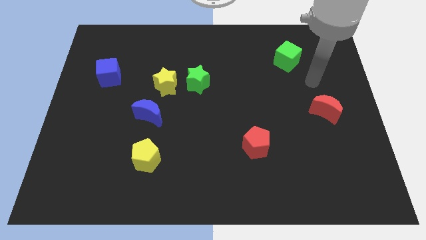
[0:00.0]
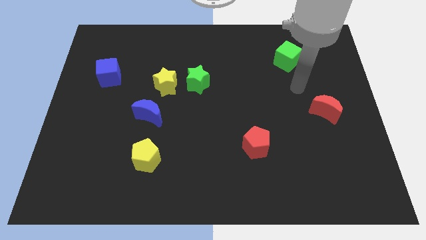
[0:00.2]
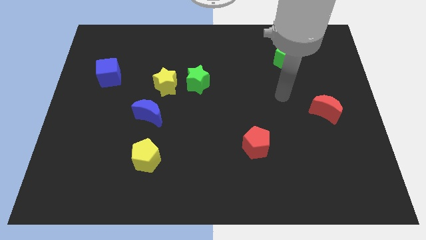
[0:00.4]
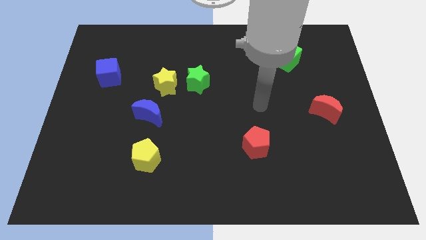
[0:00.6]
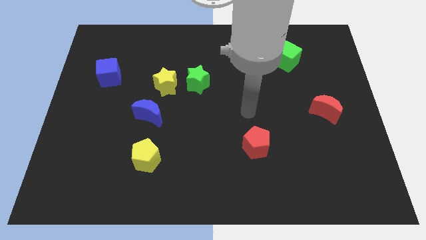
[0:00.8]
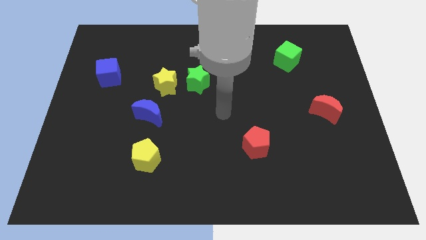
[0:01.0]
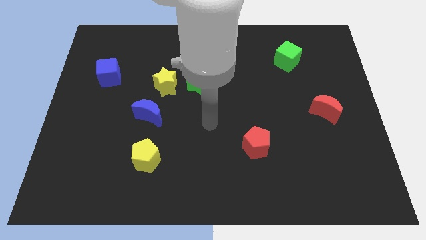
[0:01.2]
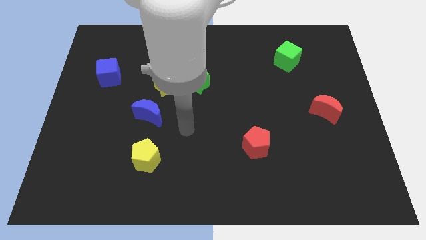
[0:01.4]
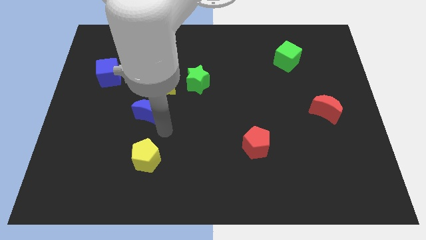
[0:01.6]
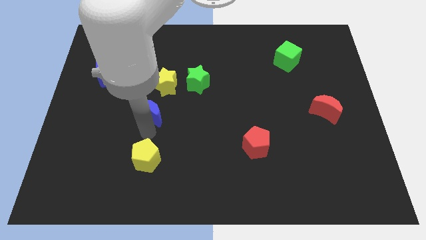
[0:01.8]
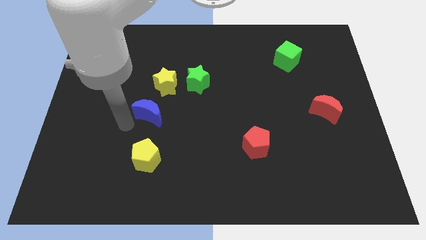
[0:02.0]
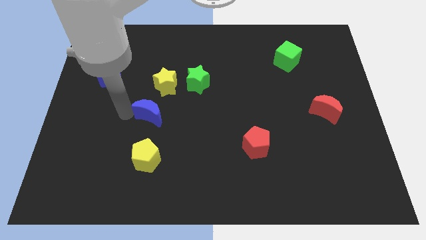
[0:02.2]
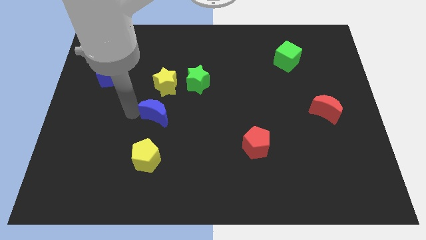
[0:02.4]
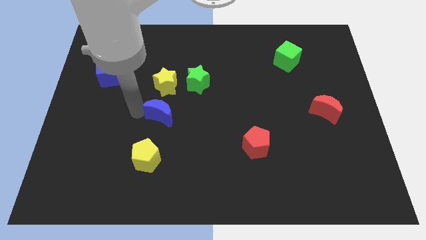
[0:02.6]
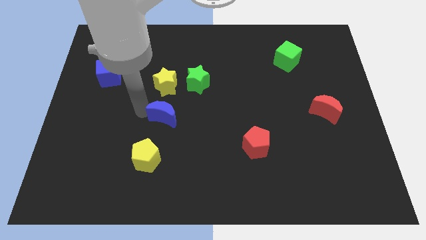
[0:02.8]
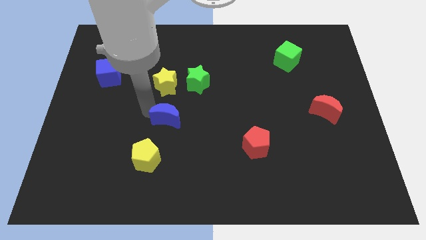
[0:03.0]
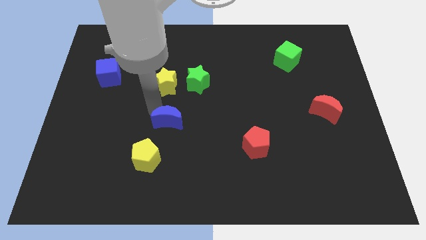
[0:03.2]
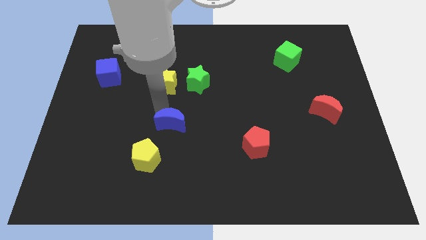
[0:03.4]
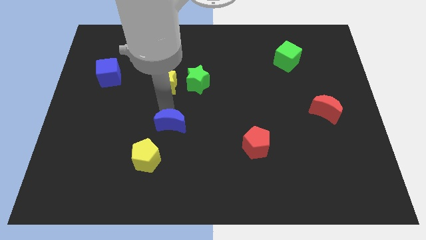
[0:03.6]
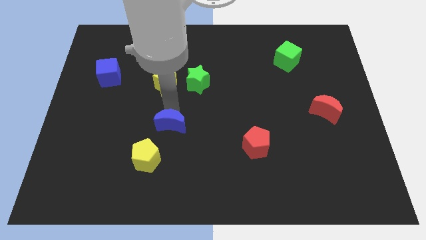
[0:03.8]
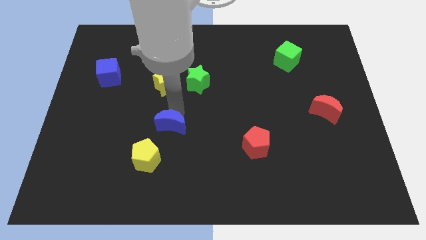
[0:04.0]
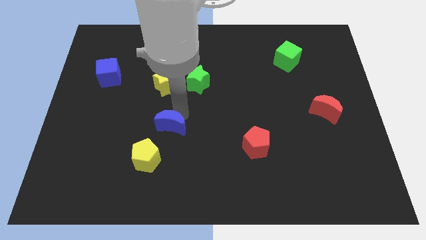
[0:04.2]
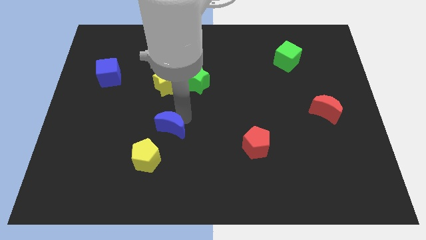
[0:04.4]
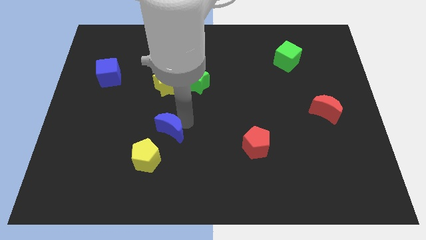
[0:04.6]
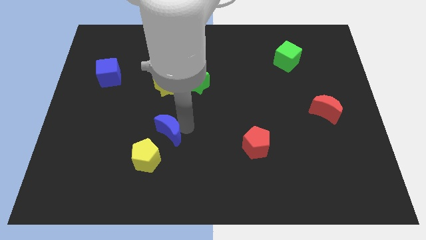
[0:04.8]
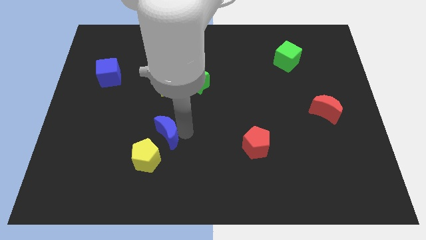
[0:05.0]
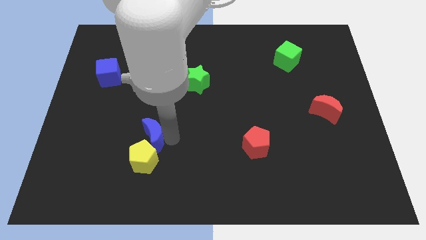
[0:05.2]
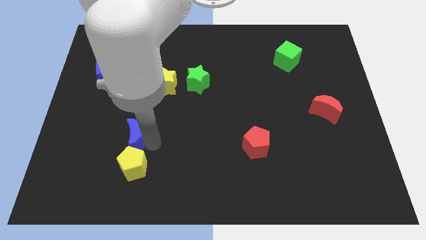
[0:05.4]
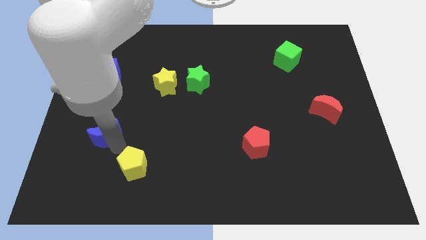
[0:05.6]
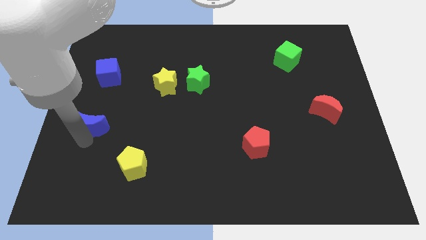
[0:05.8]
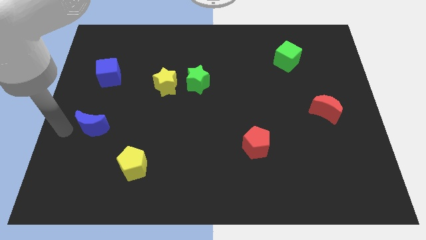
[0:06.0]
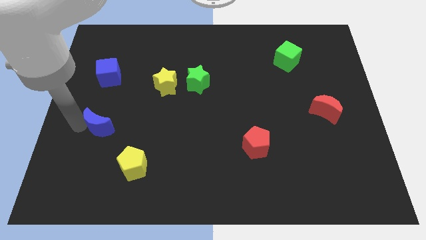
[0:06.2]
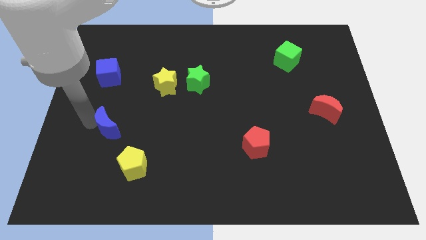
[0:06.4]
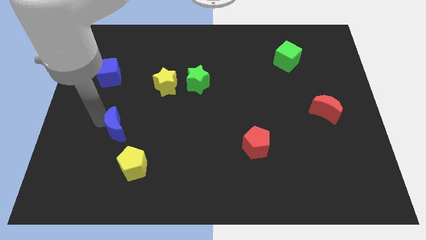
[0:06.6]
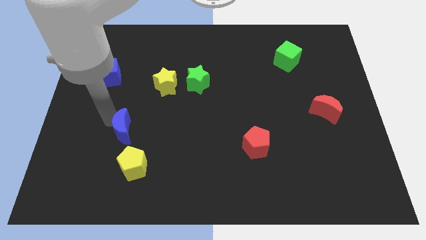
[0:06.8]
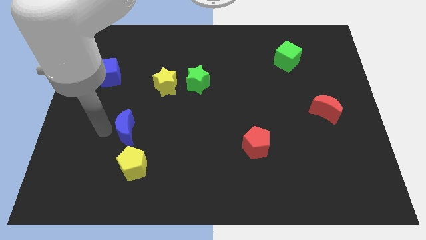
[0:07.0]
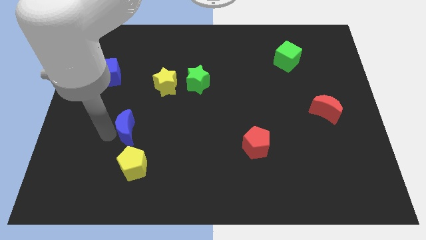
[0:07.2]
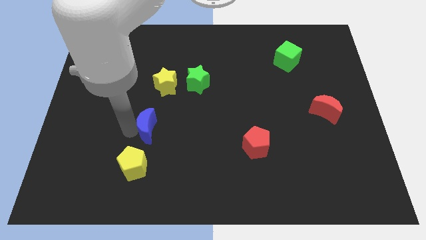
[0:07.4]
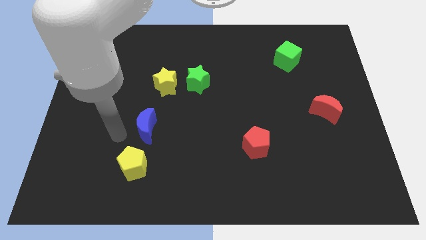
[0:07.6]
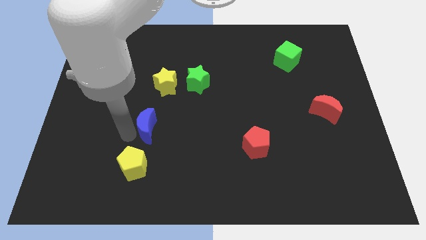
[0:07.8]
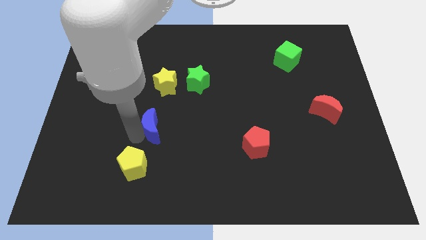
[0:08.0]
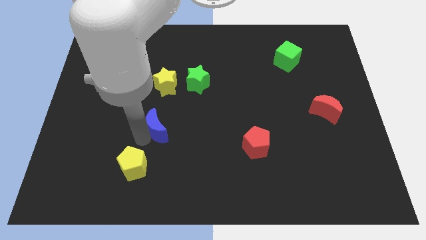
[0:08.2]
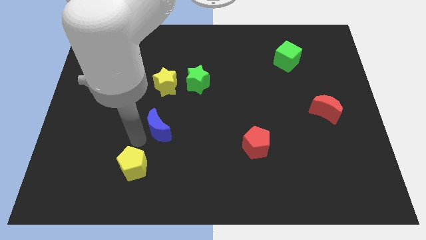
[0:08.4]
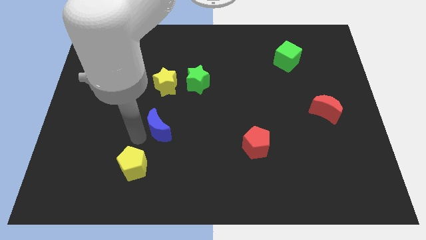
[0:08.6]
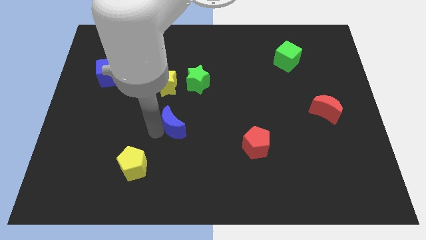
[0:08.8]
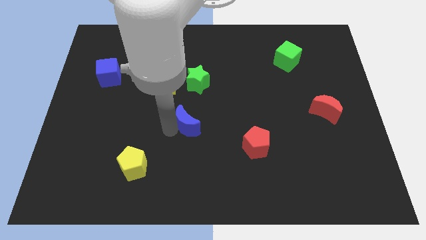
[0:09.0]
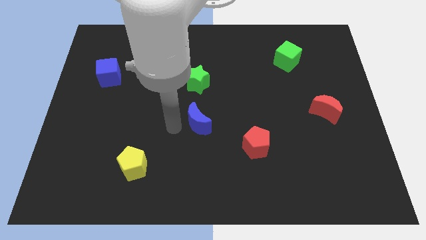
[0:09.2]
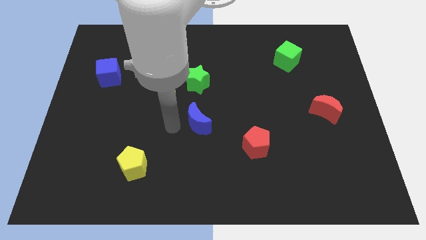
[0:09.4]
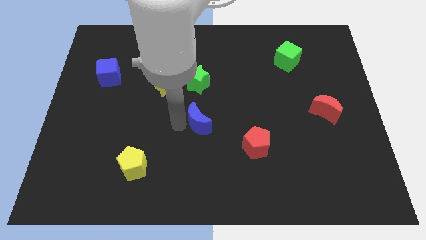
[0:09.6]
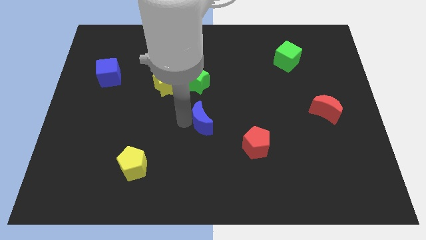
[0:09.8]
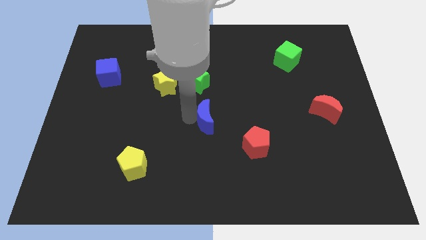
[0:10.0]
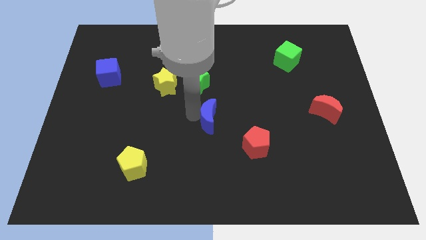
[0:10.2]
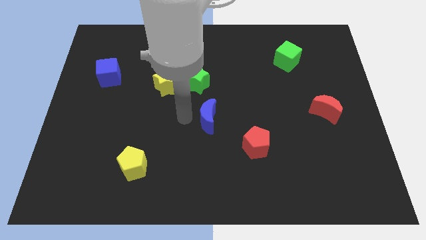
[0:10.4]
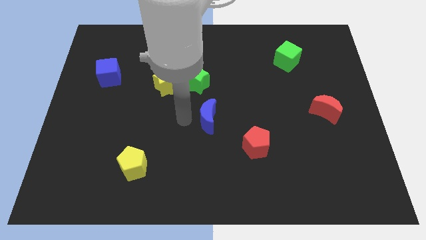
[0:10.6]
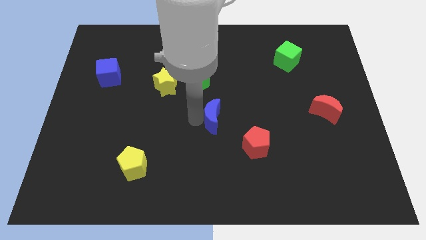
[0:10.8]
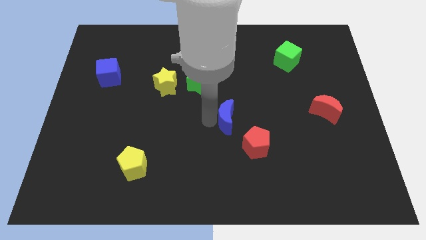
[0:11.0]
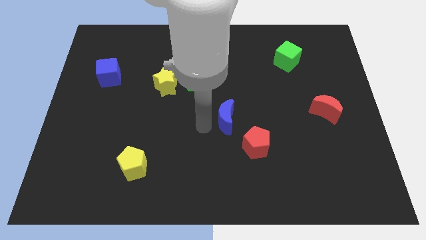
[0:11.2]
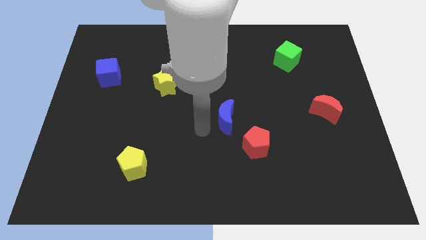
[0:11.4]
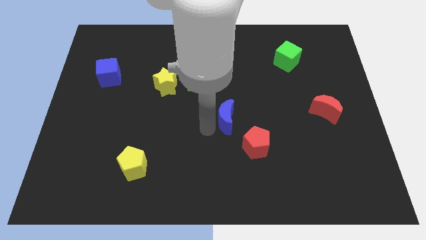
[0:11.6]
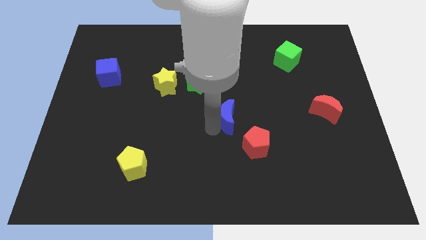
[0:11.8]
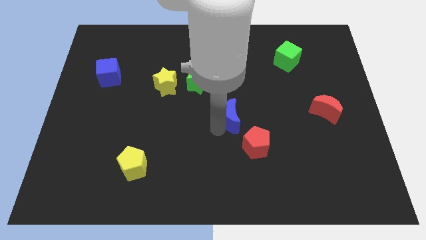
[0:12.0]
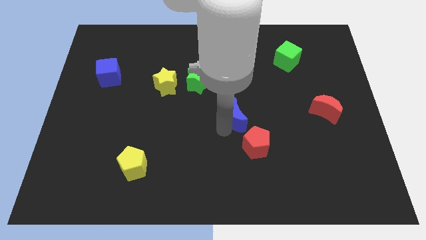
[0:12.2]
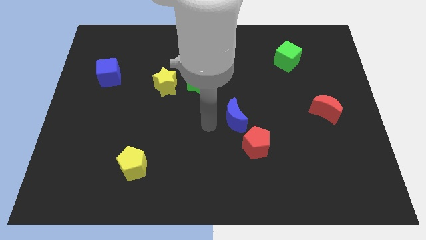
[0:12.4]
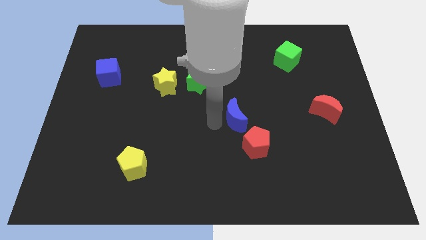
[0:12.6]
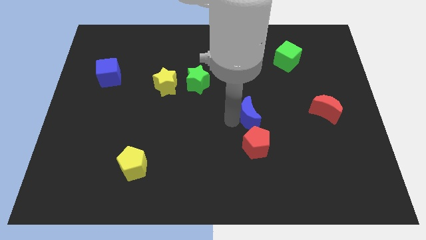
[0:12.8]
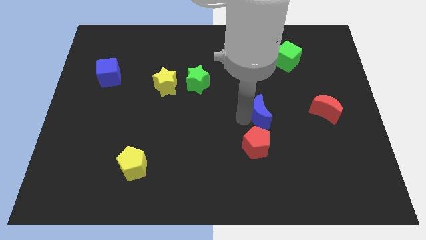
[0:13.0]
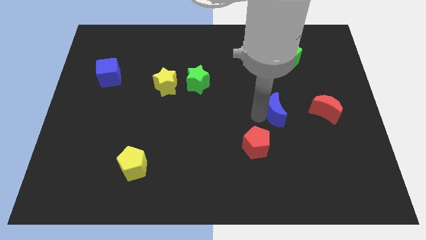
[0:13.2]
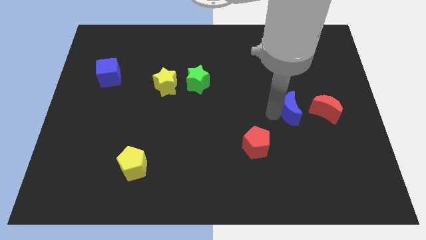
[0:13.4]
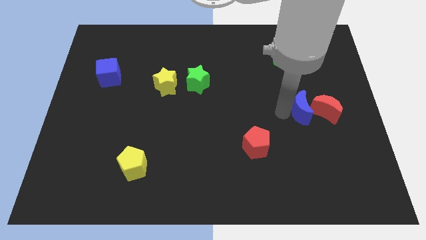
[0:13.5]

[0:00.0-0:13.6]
put the blue moon next to the red moon
